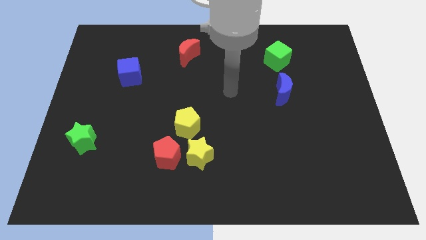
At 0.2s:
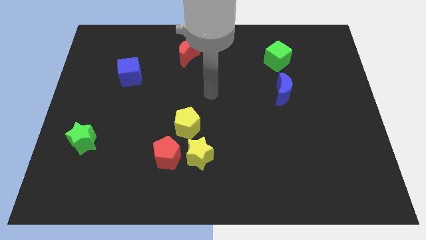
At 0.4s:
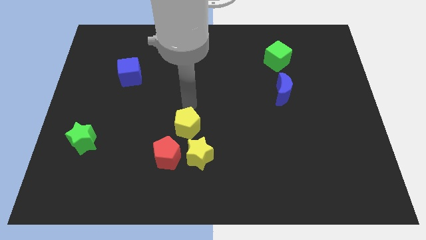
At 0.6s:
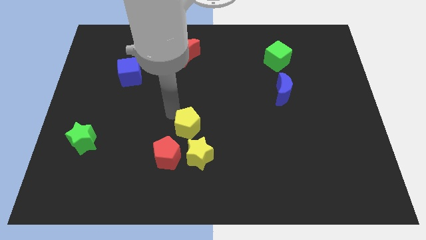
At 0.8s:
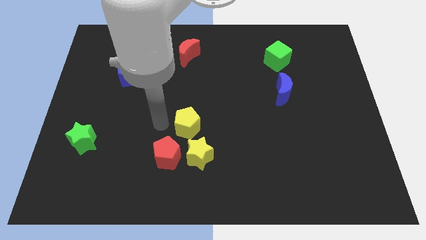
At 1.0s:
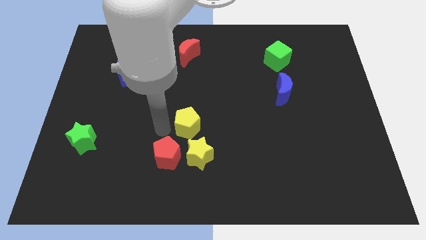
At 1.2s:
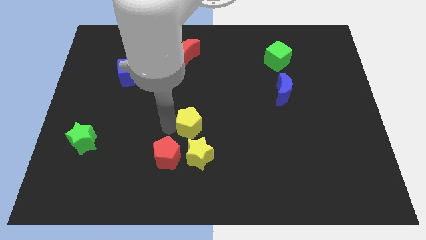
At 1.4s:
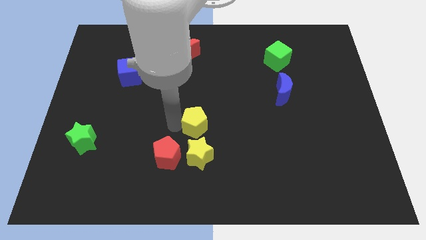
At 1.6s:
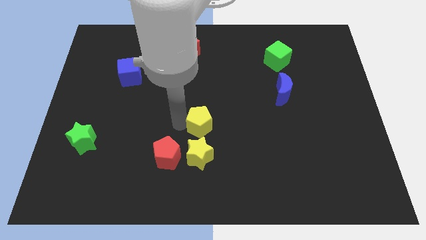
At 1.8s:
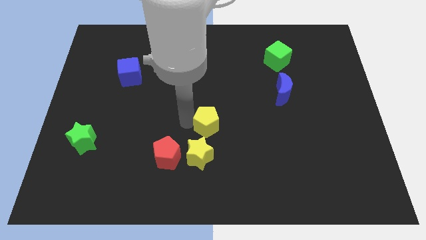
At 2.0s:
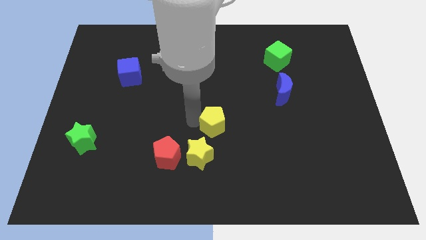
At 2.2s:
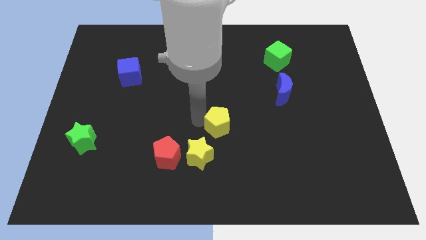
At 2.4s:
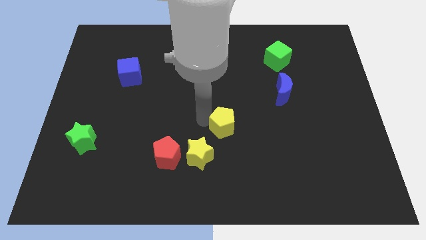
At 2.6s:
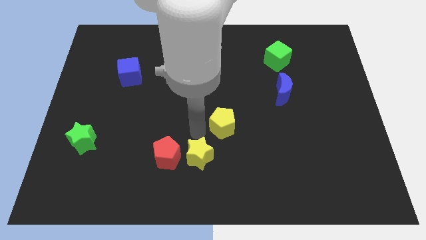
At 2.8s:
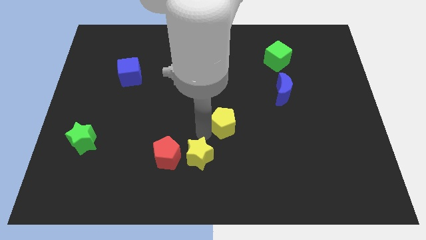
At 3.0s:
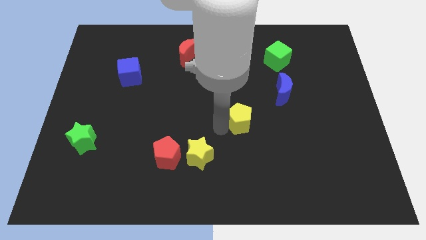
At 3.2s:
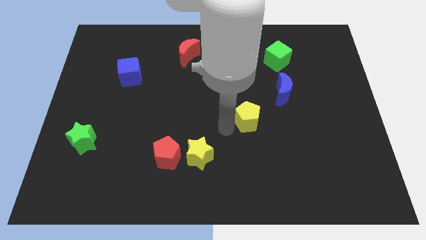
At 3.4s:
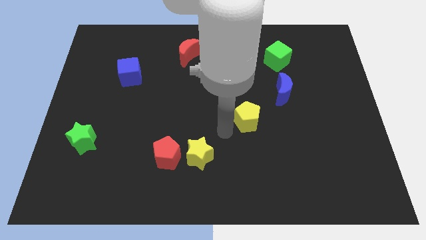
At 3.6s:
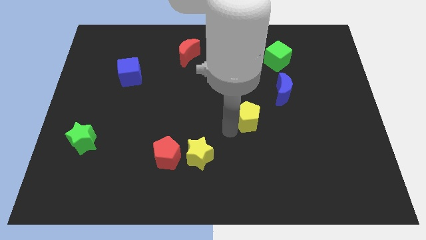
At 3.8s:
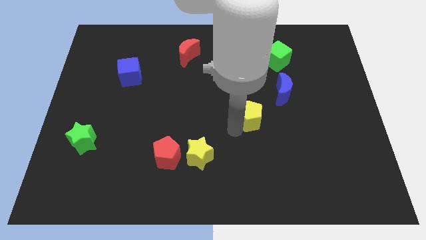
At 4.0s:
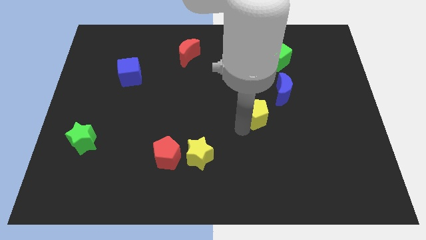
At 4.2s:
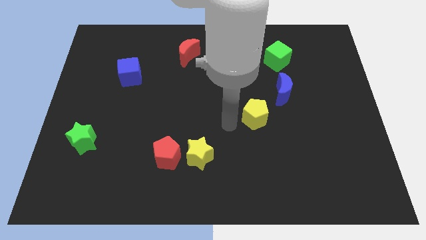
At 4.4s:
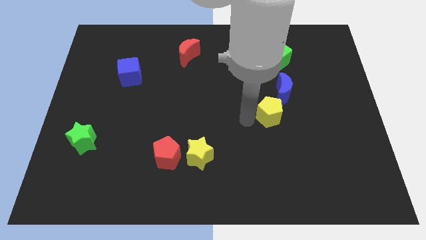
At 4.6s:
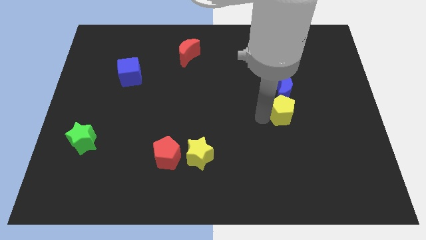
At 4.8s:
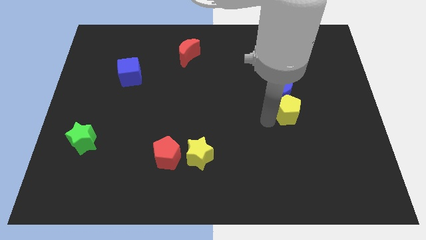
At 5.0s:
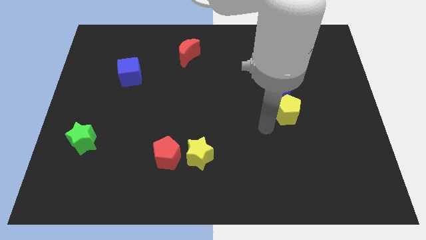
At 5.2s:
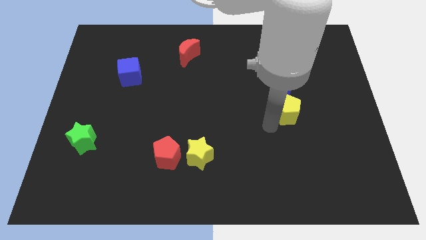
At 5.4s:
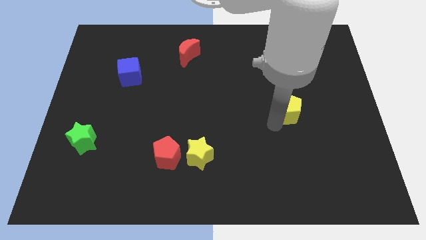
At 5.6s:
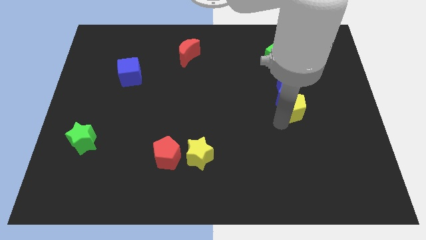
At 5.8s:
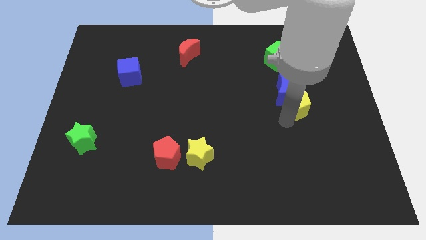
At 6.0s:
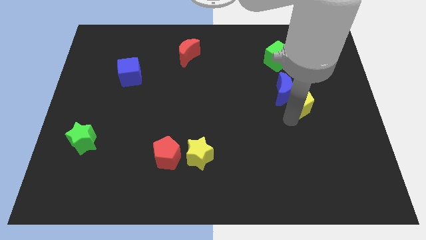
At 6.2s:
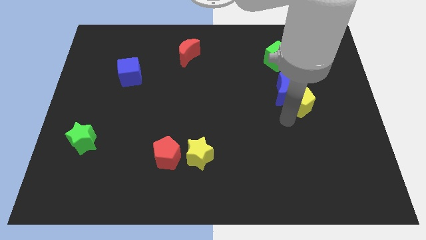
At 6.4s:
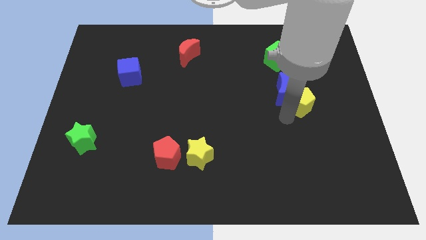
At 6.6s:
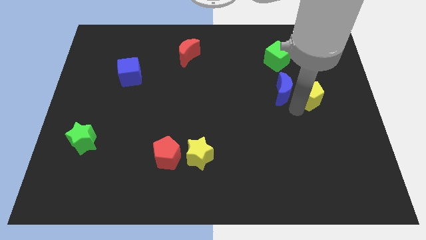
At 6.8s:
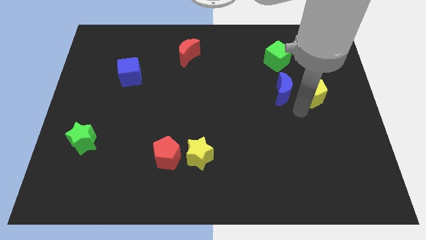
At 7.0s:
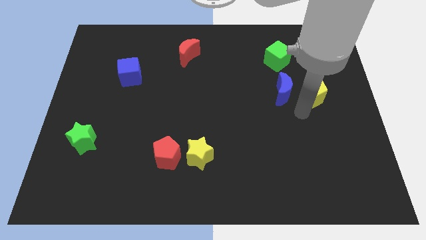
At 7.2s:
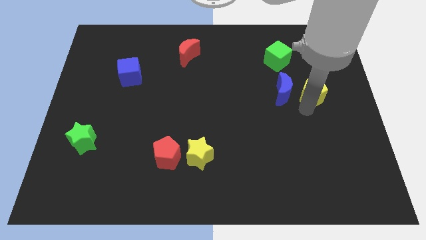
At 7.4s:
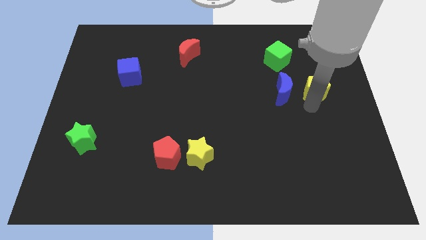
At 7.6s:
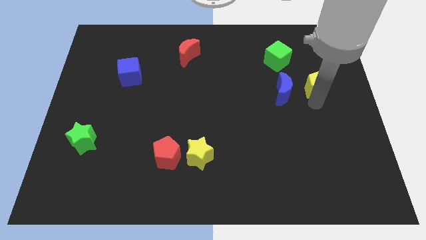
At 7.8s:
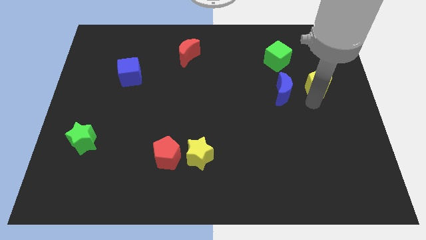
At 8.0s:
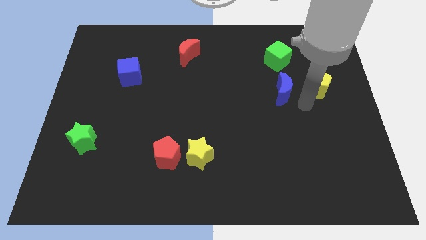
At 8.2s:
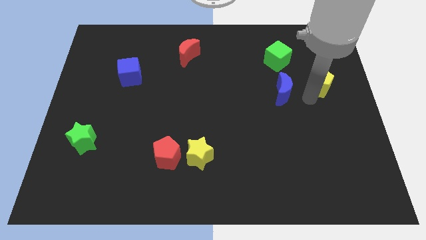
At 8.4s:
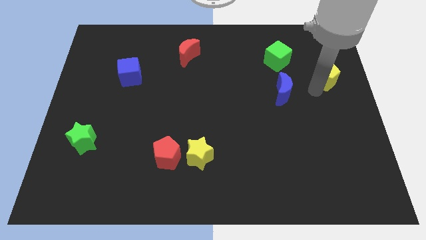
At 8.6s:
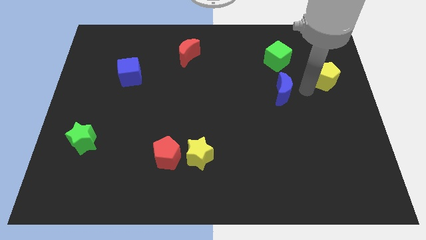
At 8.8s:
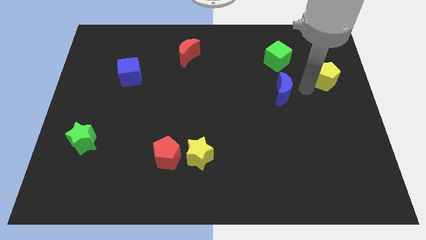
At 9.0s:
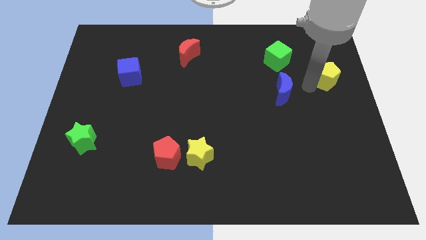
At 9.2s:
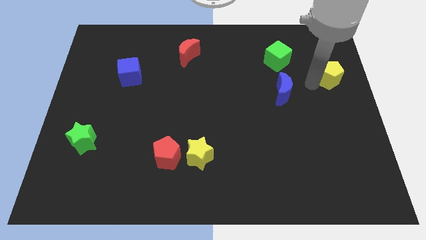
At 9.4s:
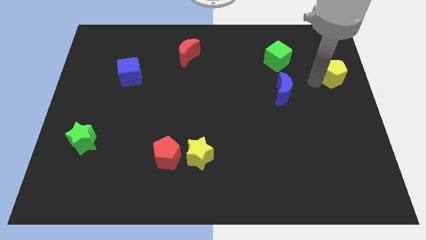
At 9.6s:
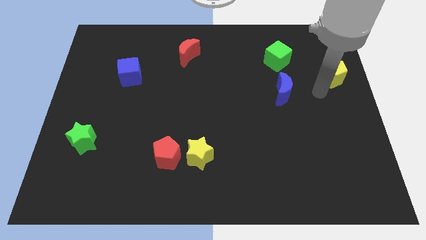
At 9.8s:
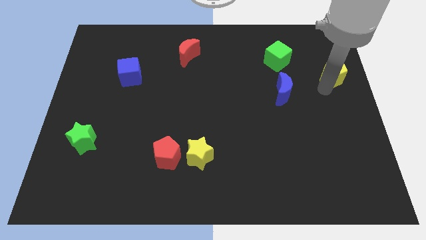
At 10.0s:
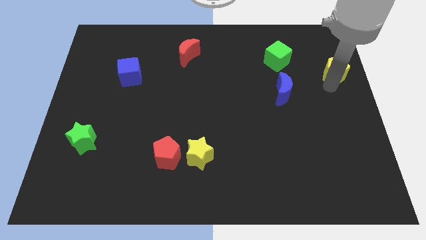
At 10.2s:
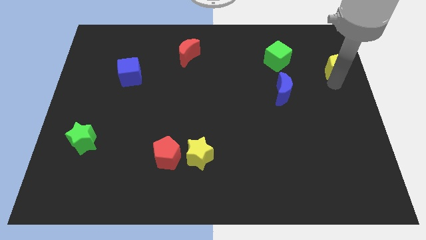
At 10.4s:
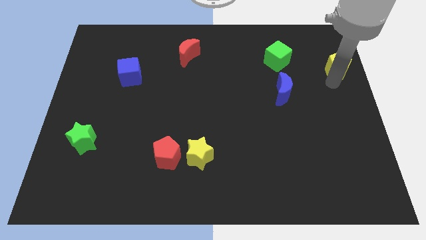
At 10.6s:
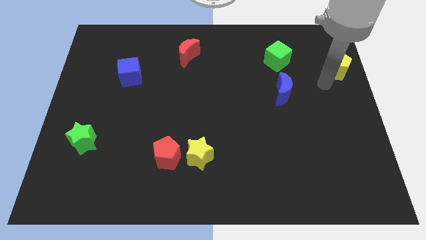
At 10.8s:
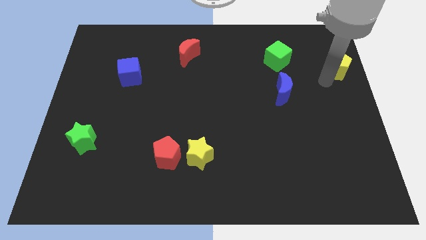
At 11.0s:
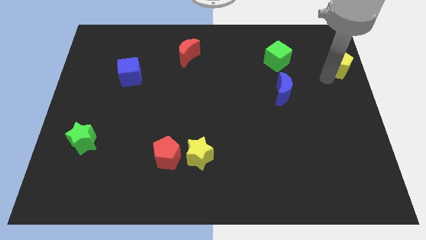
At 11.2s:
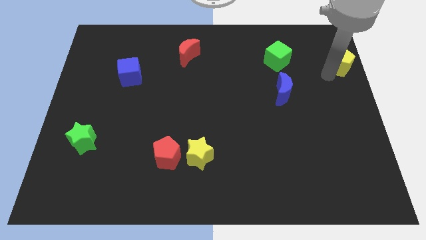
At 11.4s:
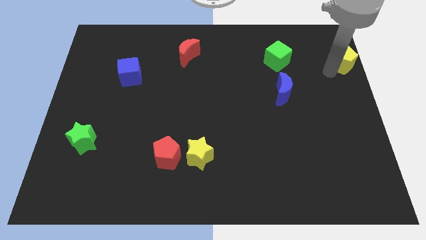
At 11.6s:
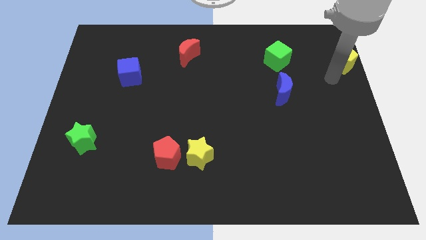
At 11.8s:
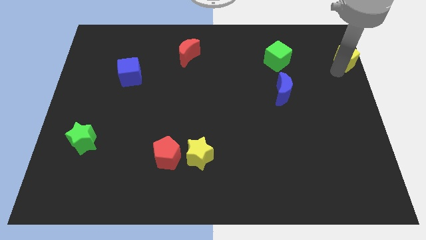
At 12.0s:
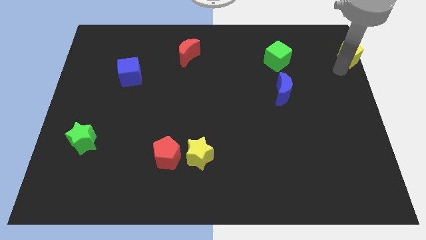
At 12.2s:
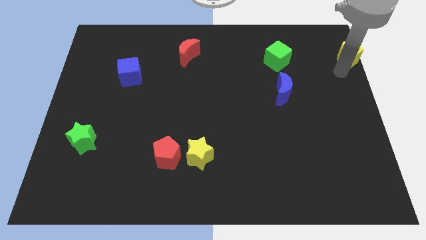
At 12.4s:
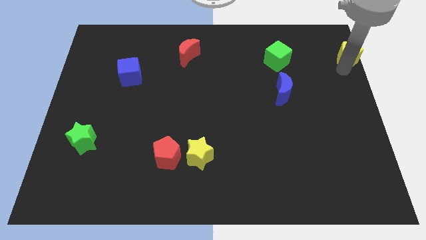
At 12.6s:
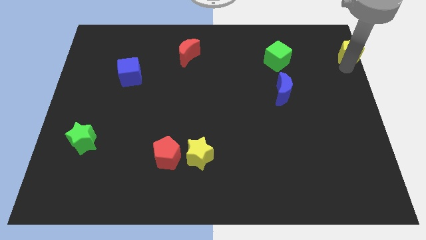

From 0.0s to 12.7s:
move the yellow pentagon to the top right

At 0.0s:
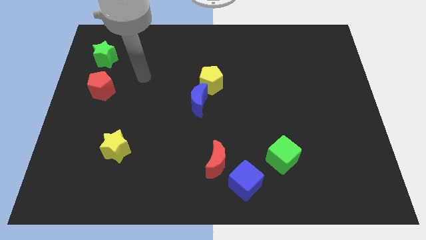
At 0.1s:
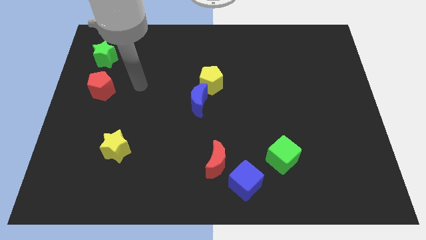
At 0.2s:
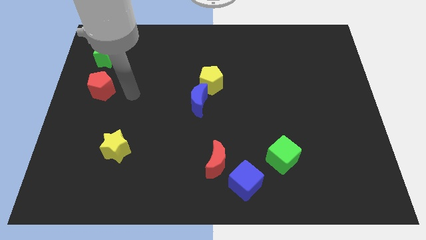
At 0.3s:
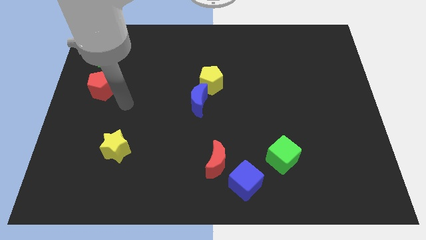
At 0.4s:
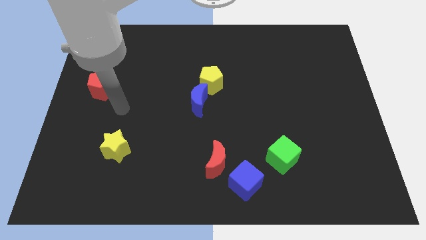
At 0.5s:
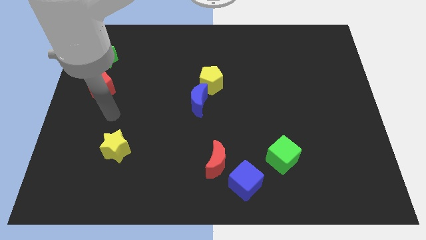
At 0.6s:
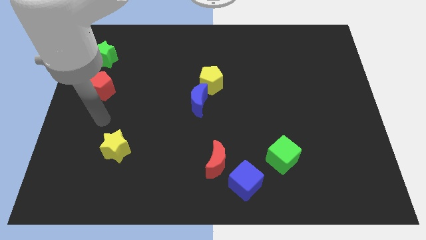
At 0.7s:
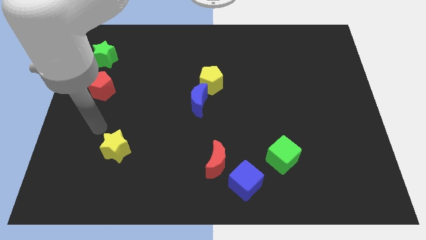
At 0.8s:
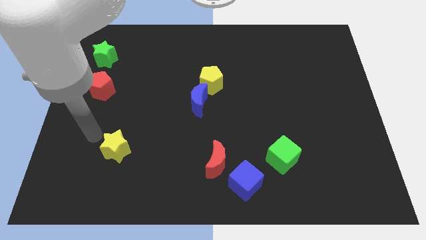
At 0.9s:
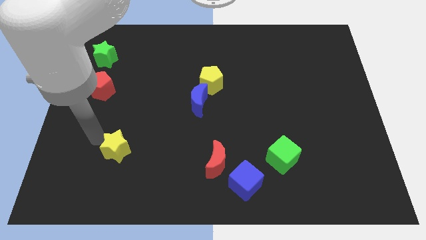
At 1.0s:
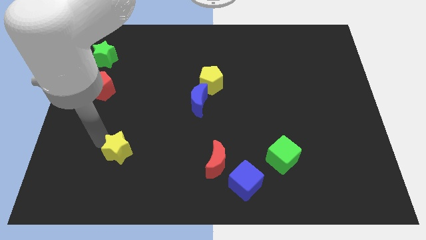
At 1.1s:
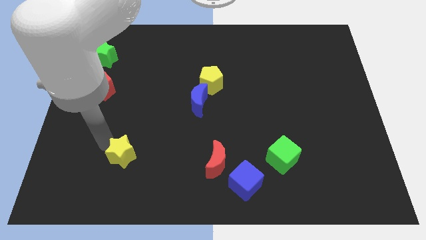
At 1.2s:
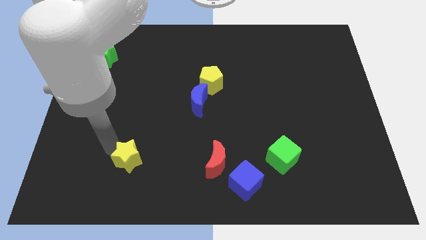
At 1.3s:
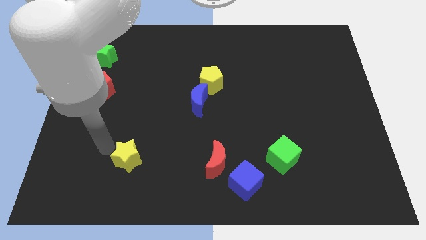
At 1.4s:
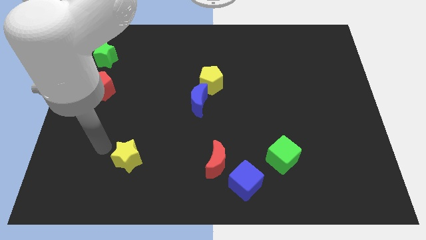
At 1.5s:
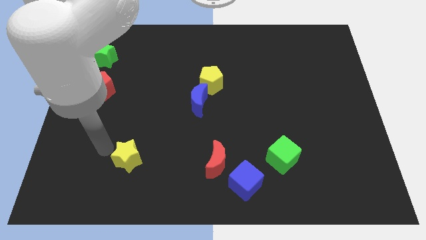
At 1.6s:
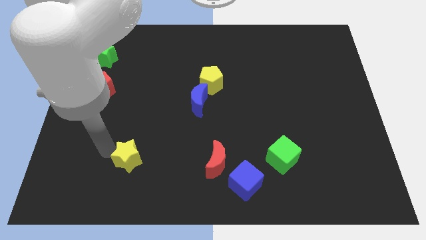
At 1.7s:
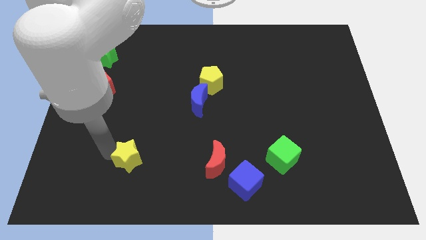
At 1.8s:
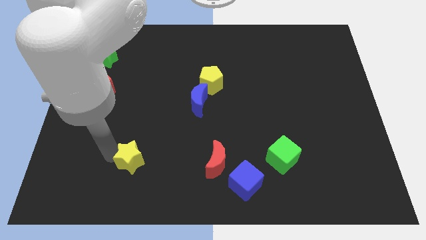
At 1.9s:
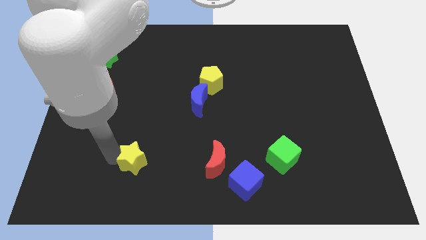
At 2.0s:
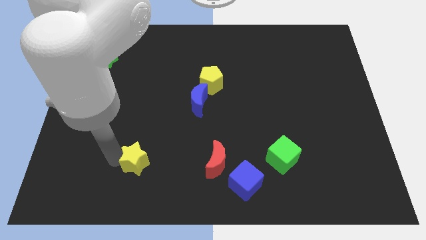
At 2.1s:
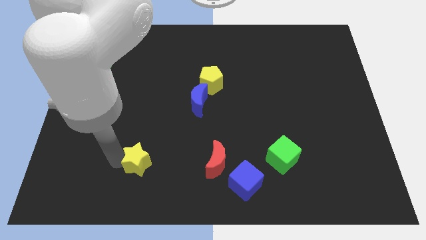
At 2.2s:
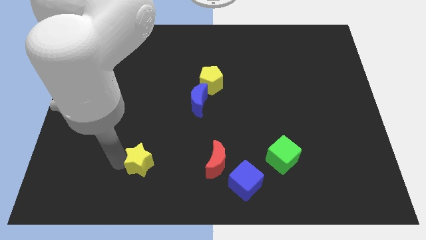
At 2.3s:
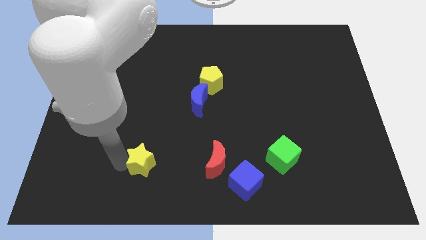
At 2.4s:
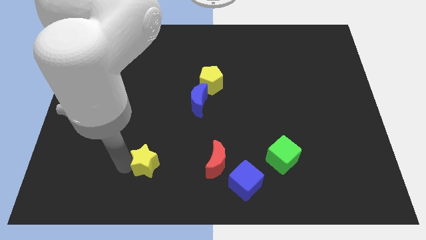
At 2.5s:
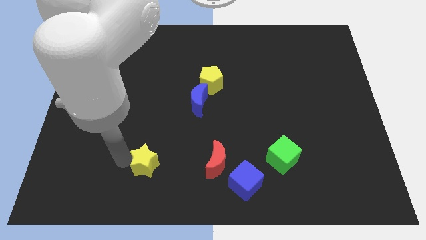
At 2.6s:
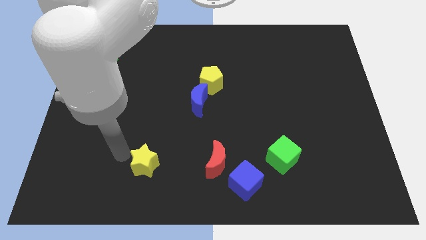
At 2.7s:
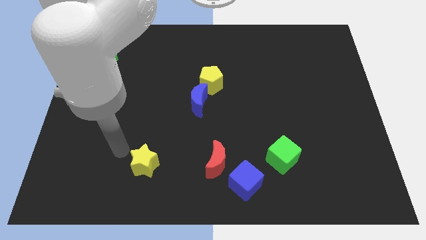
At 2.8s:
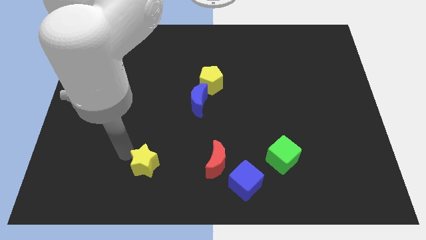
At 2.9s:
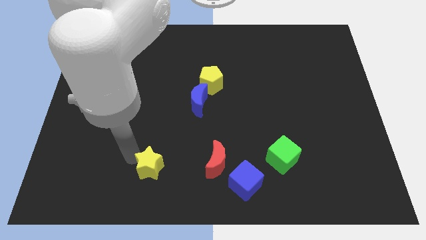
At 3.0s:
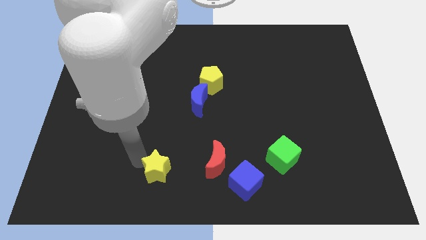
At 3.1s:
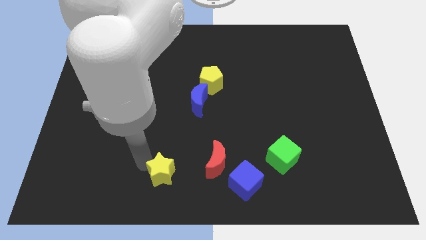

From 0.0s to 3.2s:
push the yellow star to the bottom
